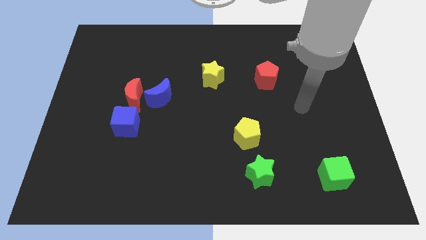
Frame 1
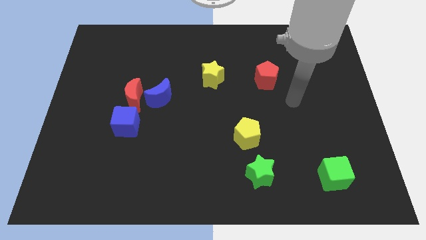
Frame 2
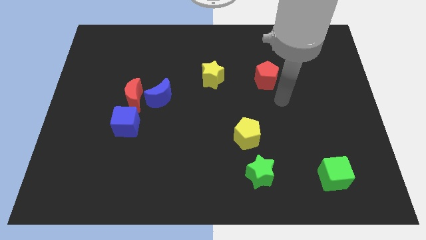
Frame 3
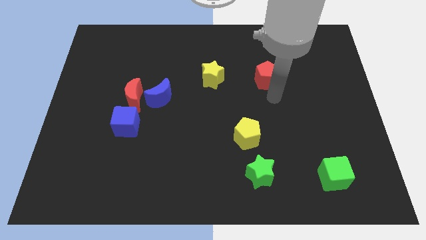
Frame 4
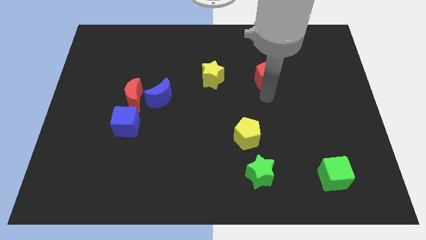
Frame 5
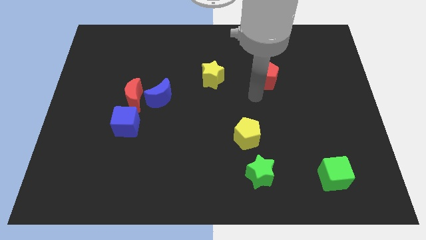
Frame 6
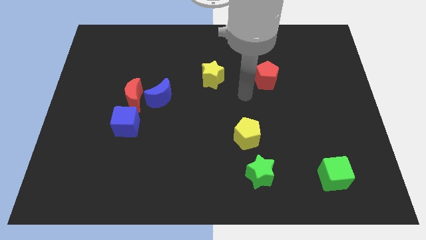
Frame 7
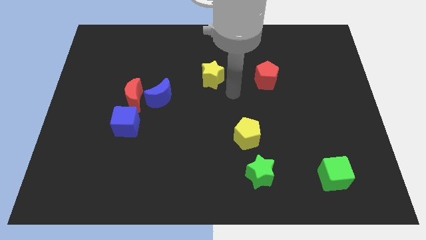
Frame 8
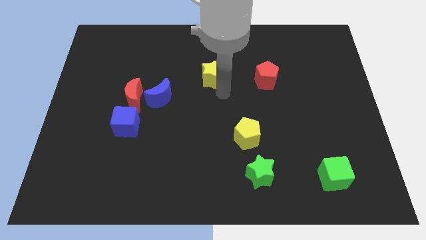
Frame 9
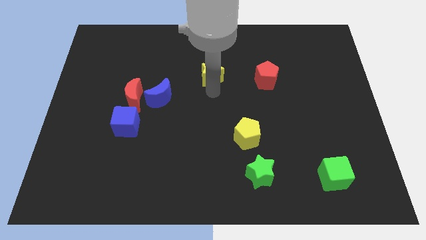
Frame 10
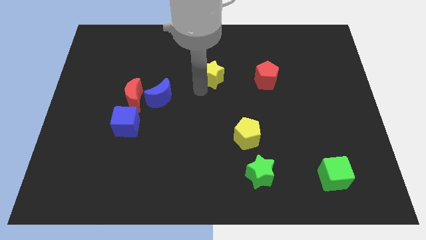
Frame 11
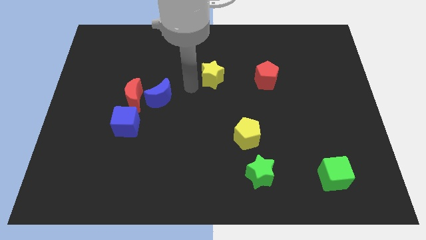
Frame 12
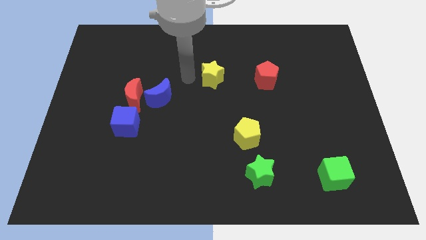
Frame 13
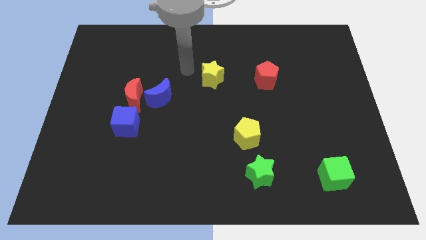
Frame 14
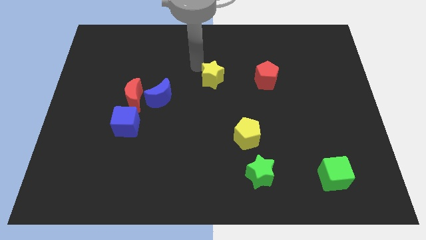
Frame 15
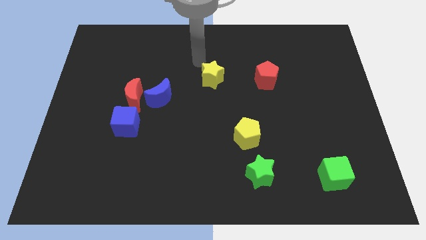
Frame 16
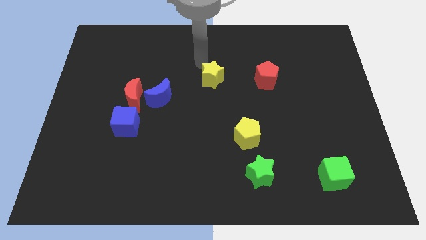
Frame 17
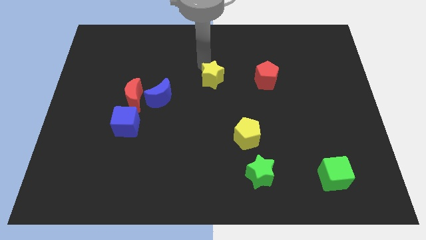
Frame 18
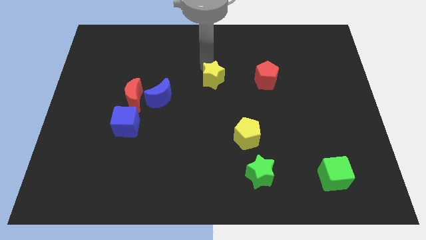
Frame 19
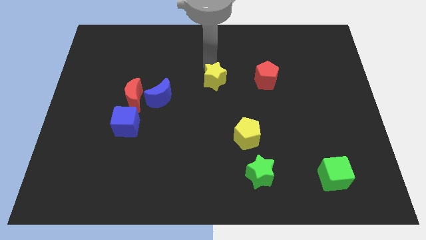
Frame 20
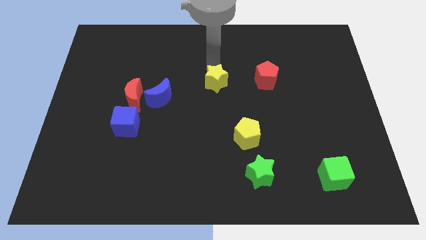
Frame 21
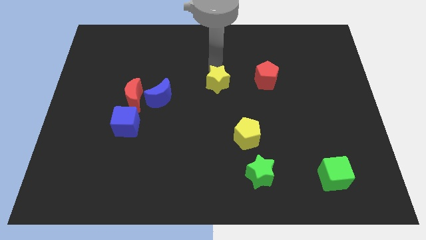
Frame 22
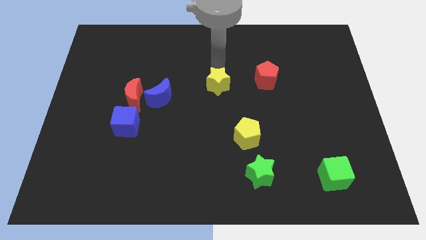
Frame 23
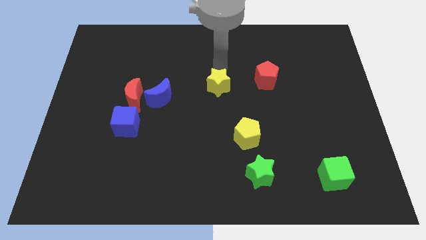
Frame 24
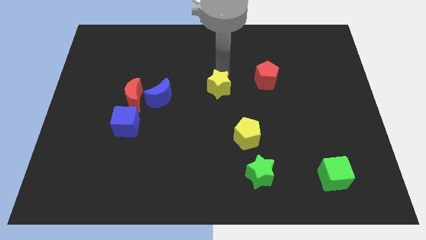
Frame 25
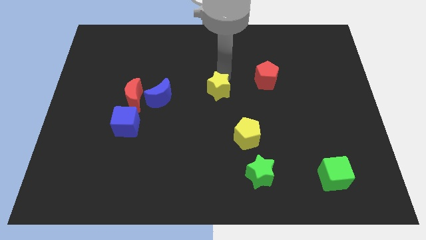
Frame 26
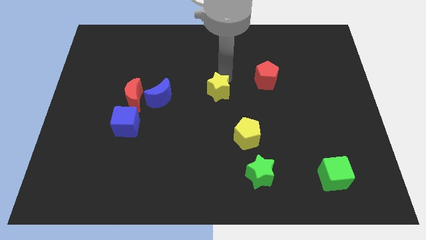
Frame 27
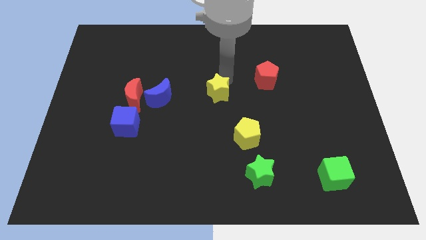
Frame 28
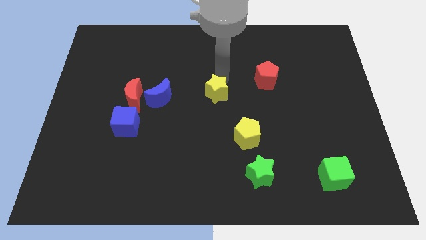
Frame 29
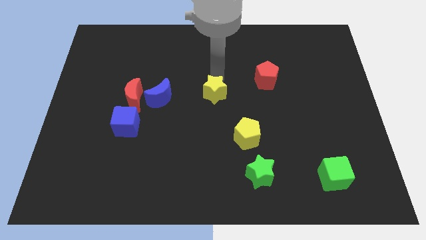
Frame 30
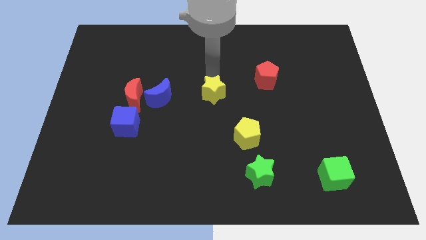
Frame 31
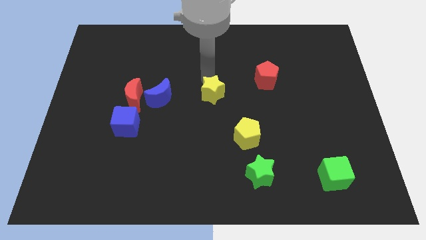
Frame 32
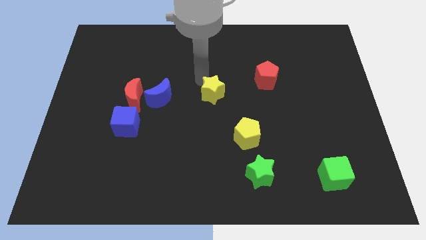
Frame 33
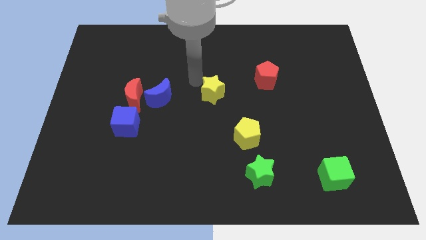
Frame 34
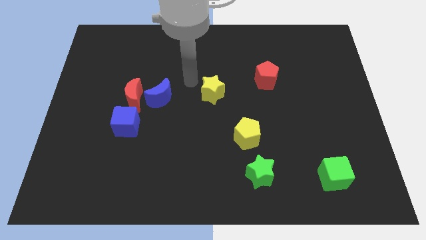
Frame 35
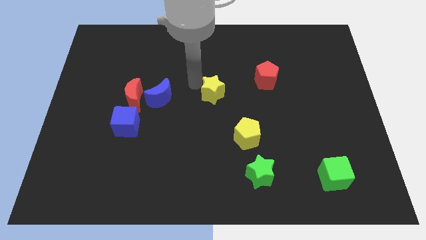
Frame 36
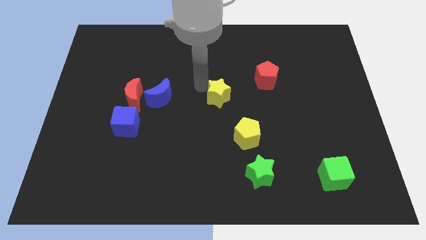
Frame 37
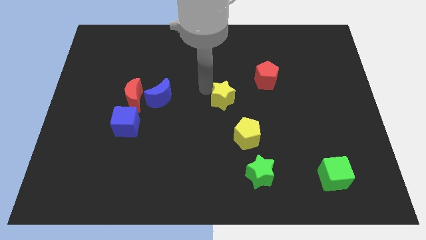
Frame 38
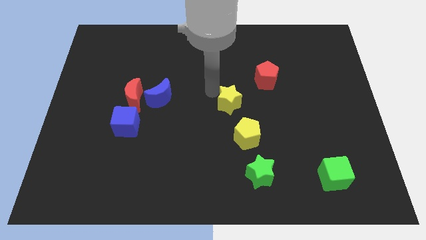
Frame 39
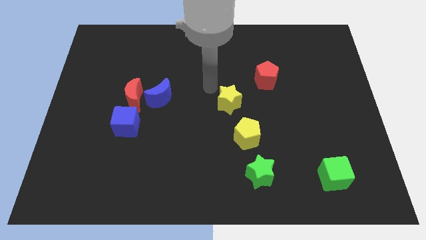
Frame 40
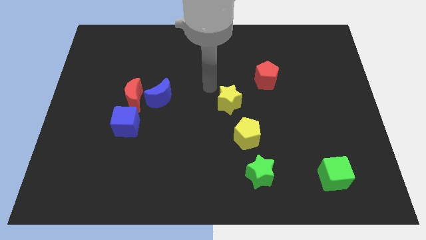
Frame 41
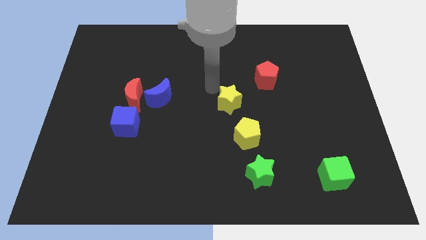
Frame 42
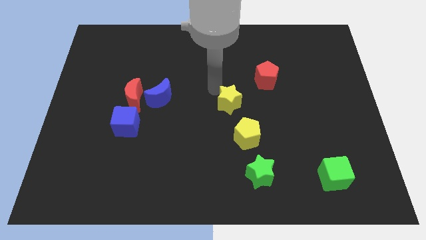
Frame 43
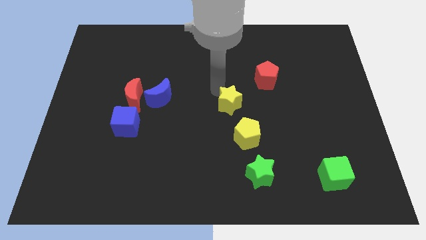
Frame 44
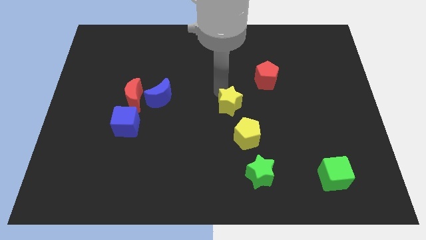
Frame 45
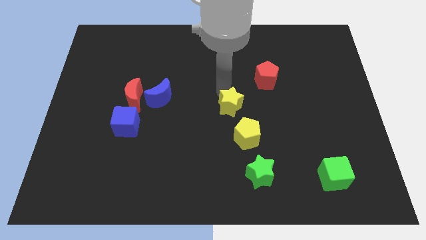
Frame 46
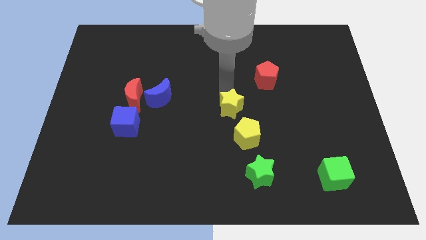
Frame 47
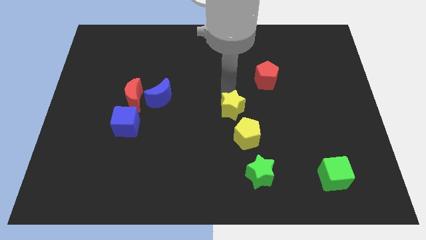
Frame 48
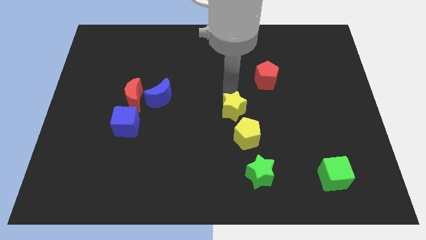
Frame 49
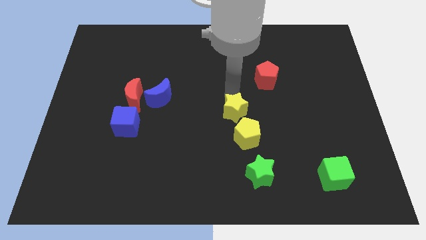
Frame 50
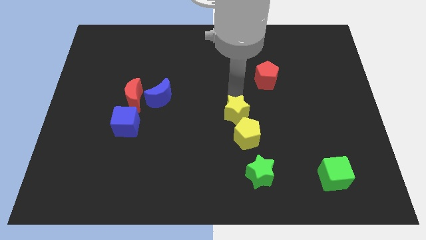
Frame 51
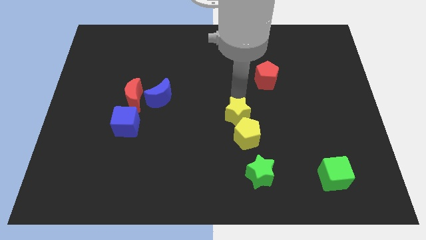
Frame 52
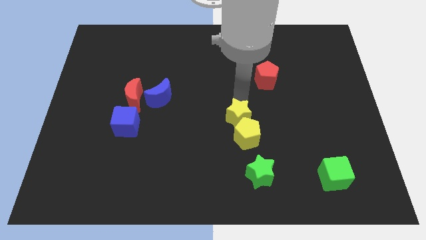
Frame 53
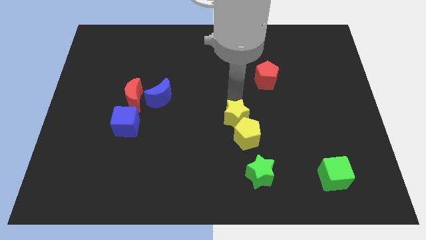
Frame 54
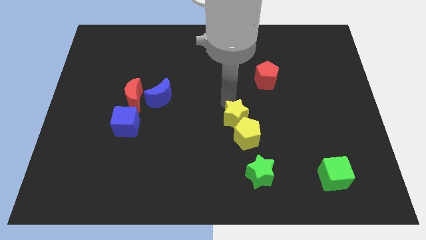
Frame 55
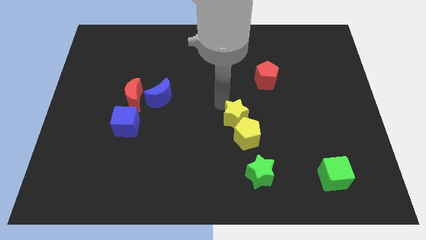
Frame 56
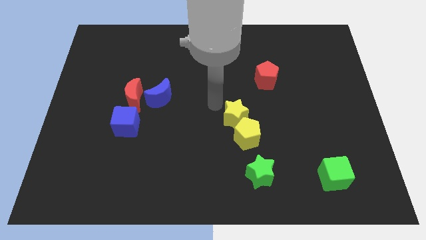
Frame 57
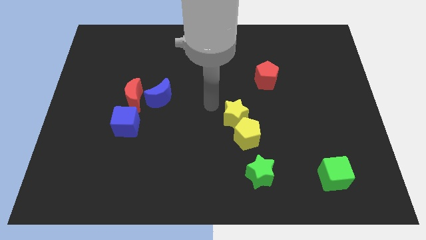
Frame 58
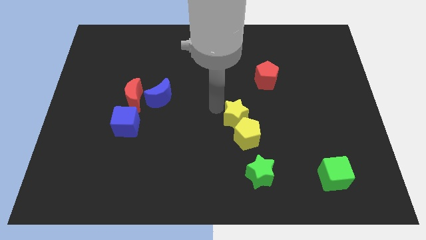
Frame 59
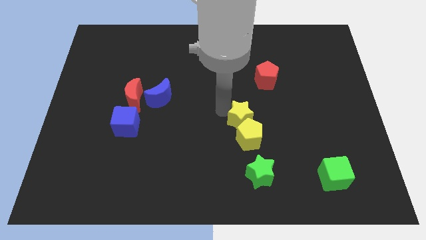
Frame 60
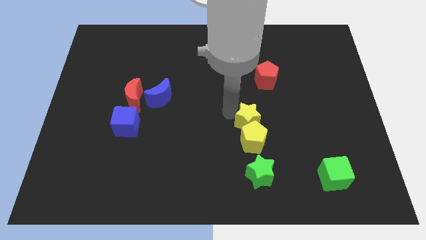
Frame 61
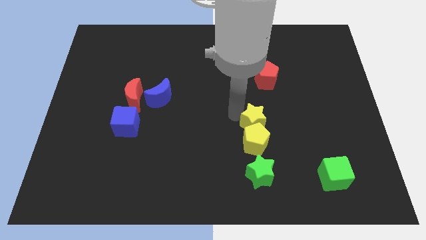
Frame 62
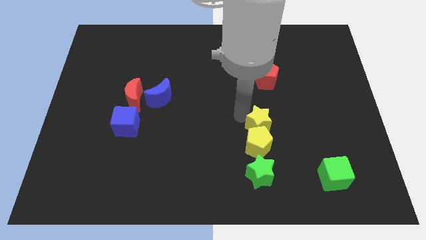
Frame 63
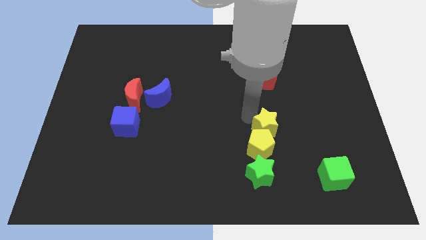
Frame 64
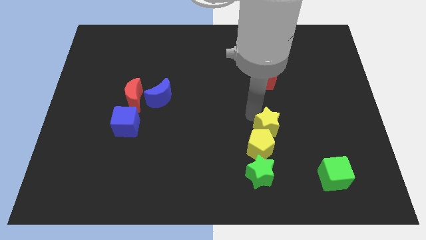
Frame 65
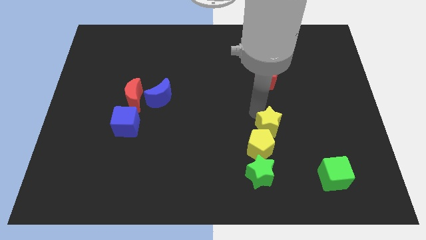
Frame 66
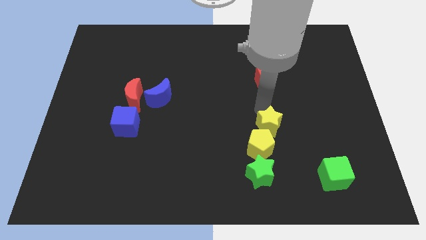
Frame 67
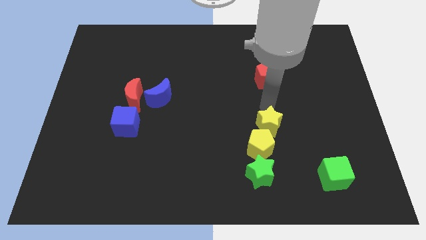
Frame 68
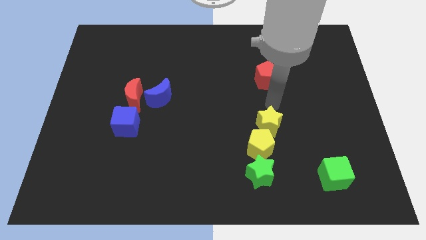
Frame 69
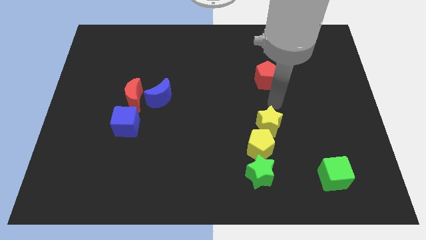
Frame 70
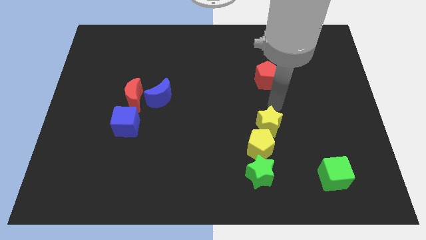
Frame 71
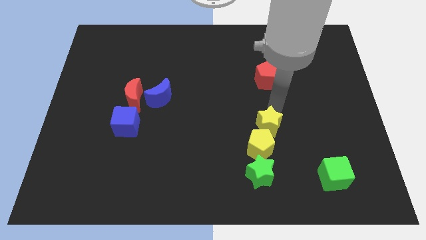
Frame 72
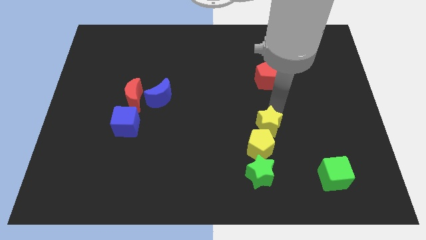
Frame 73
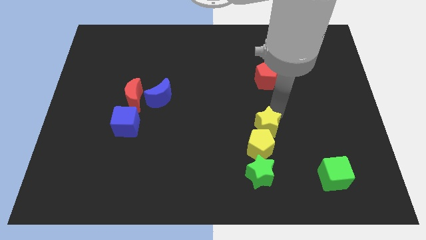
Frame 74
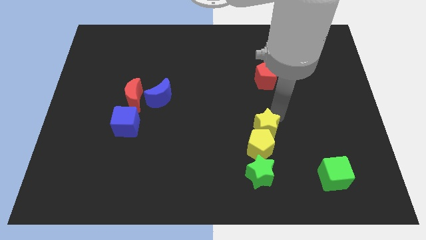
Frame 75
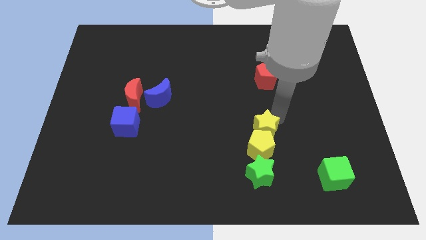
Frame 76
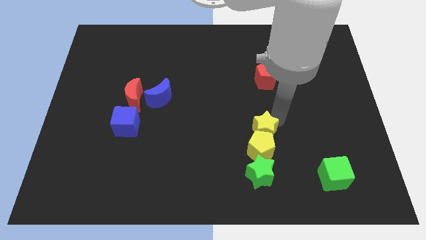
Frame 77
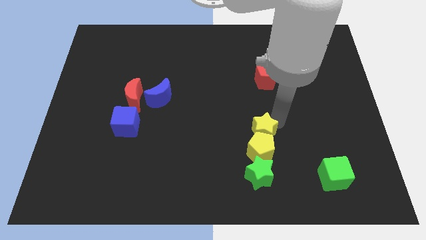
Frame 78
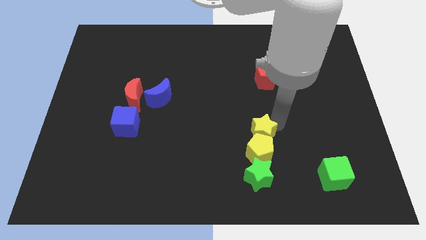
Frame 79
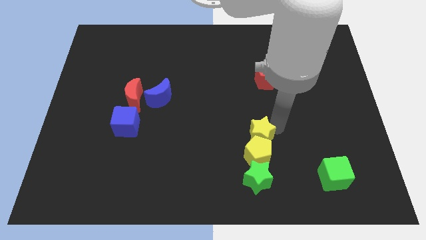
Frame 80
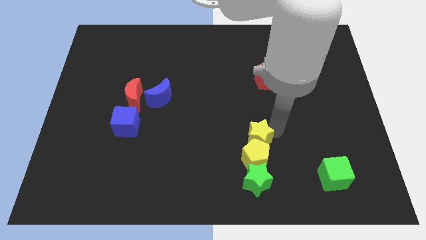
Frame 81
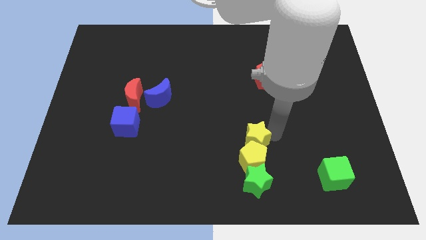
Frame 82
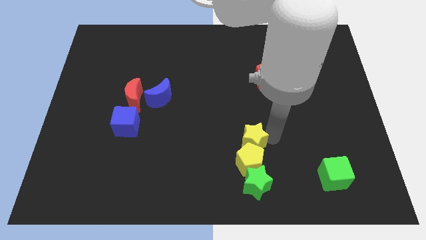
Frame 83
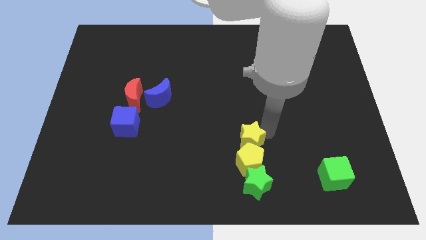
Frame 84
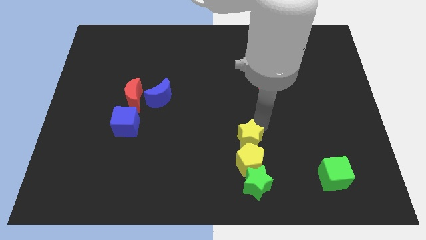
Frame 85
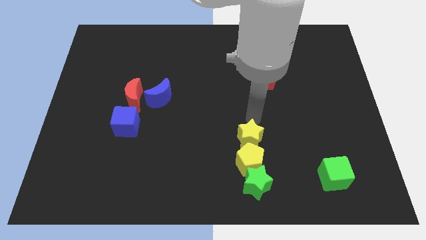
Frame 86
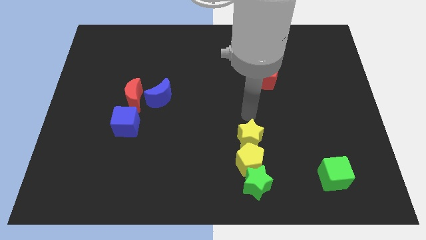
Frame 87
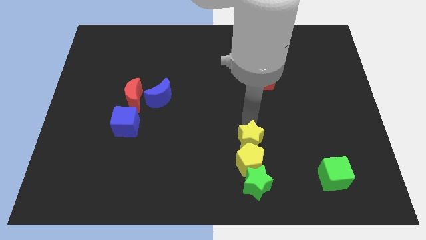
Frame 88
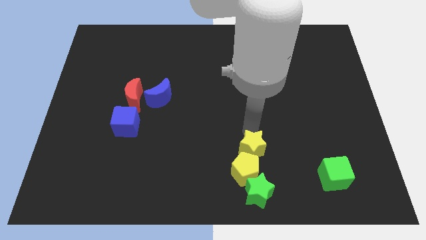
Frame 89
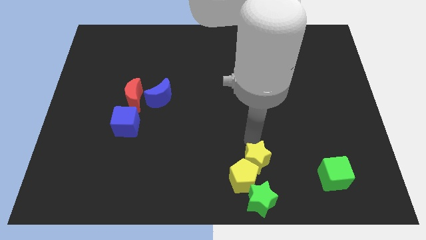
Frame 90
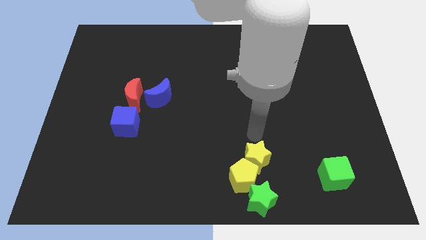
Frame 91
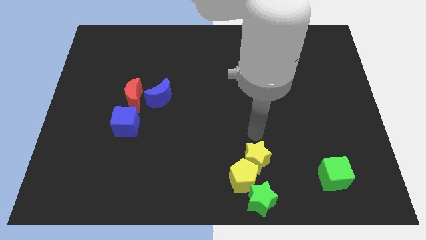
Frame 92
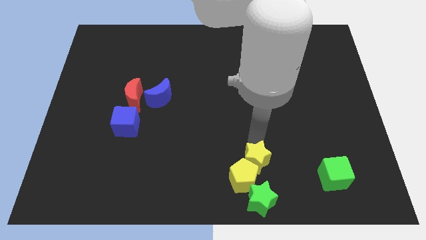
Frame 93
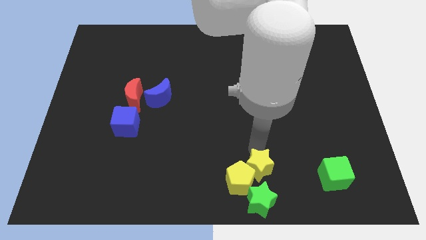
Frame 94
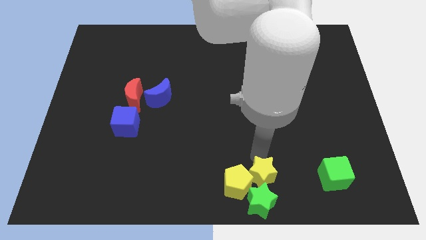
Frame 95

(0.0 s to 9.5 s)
push the yellow star to the green star
